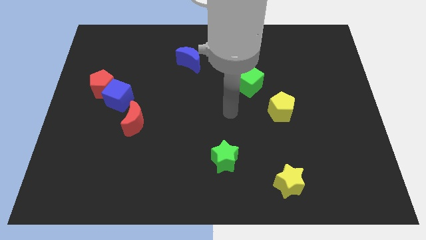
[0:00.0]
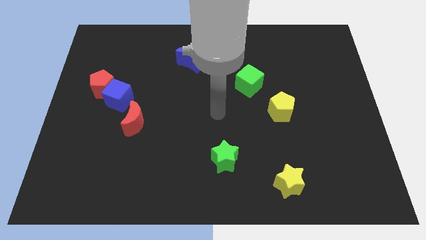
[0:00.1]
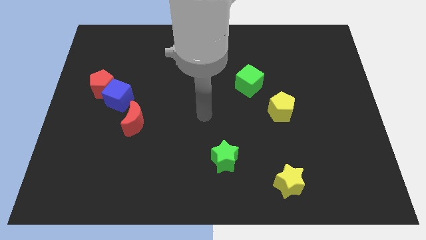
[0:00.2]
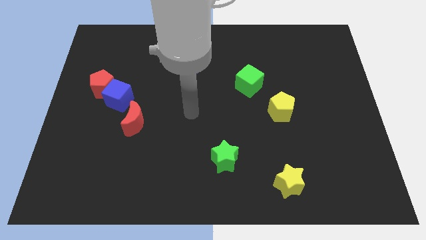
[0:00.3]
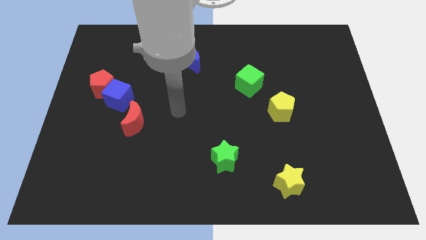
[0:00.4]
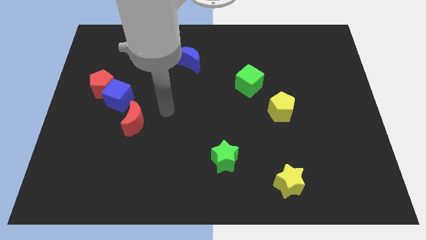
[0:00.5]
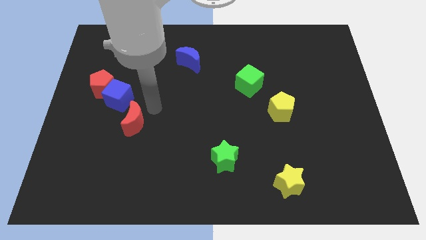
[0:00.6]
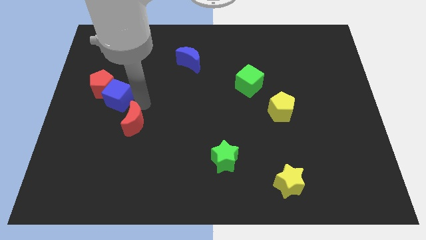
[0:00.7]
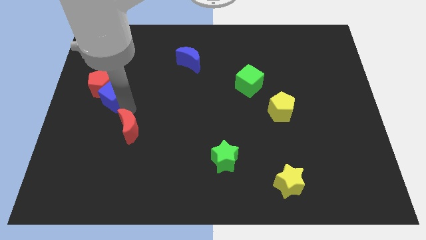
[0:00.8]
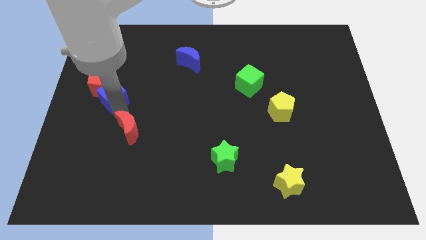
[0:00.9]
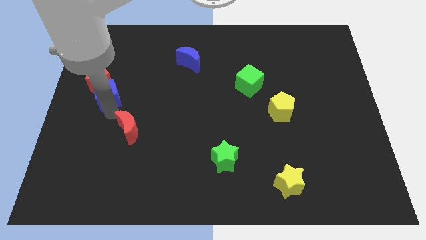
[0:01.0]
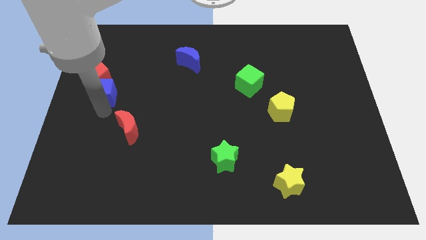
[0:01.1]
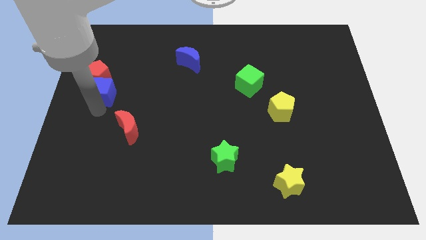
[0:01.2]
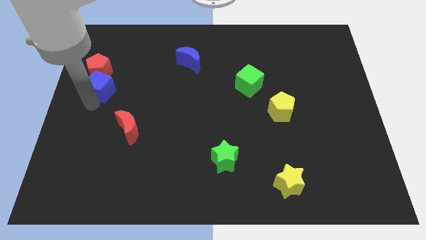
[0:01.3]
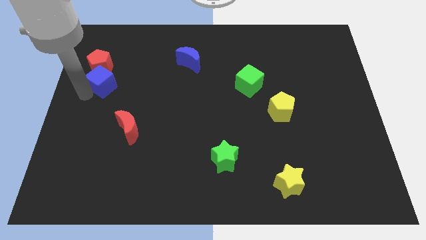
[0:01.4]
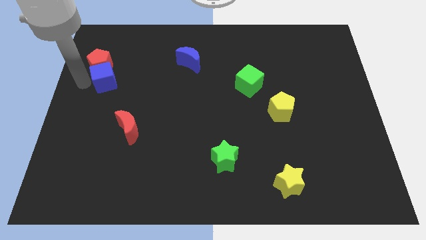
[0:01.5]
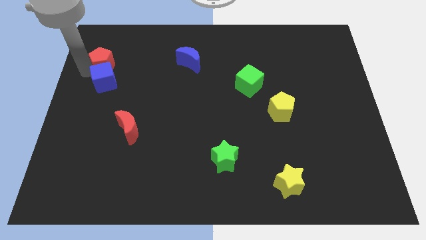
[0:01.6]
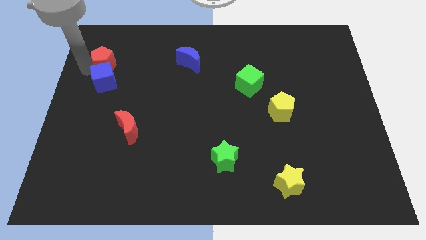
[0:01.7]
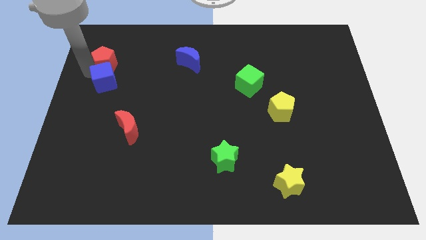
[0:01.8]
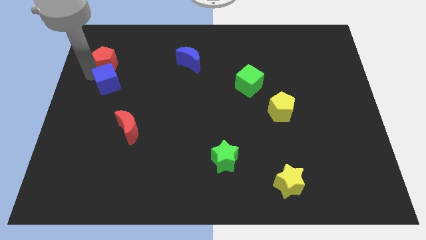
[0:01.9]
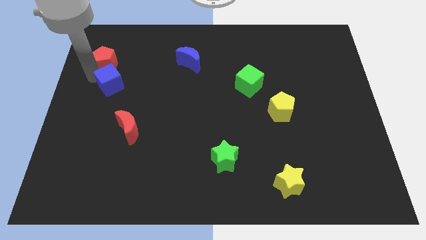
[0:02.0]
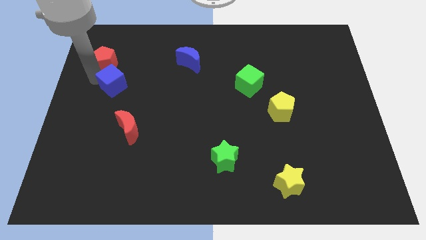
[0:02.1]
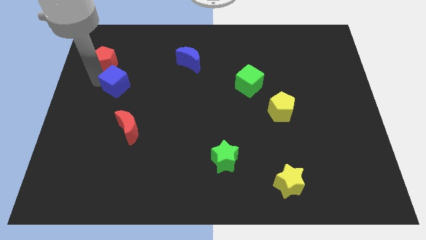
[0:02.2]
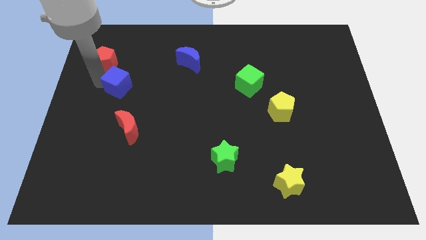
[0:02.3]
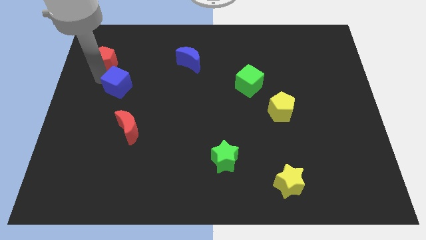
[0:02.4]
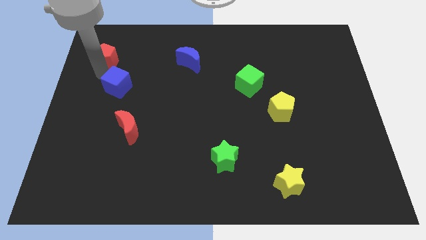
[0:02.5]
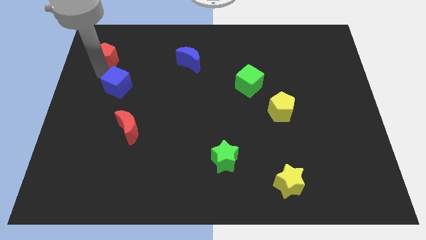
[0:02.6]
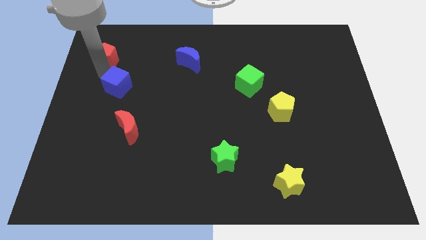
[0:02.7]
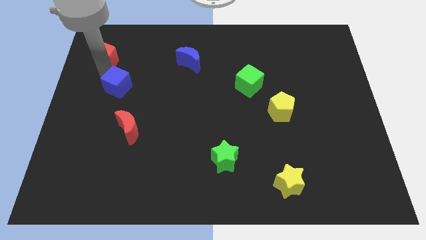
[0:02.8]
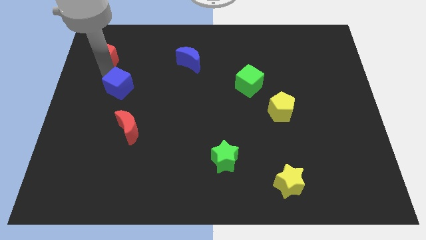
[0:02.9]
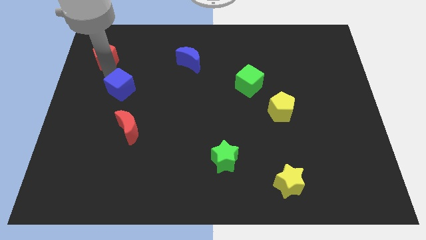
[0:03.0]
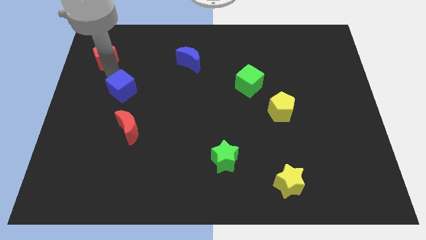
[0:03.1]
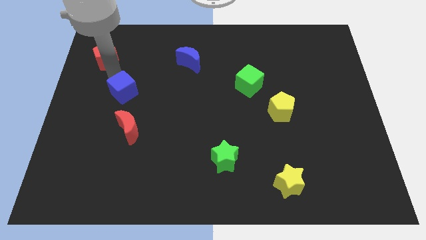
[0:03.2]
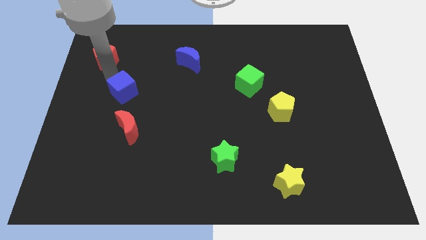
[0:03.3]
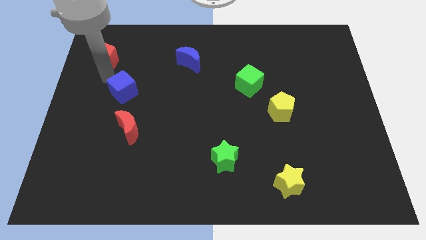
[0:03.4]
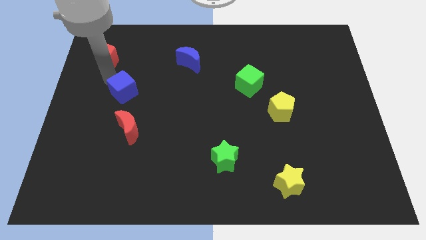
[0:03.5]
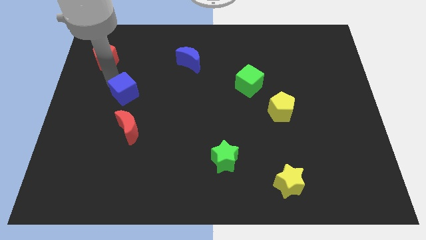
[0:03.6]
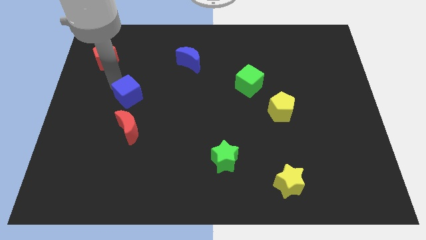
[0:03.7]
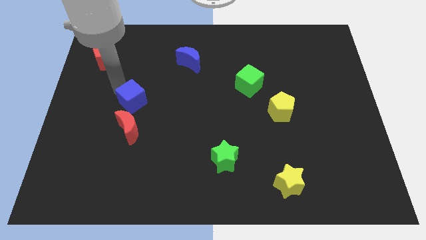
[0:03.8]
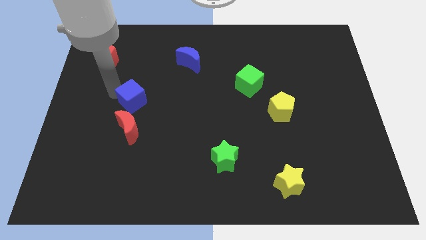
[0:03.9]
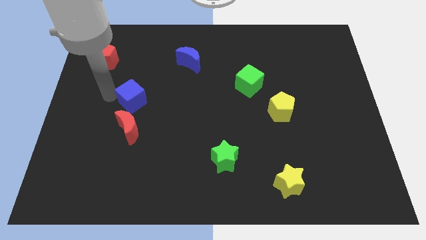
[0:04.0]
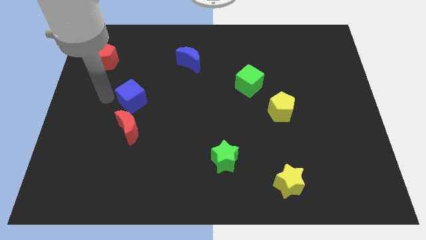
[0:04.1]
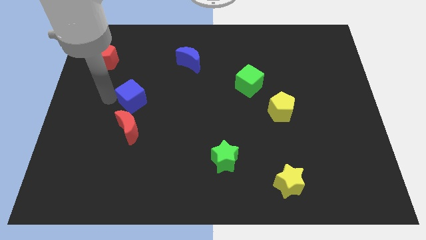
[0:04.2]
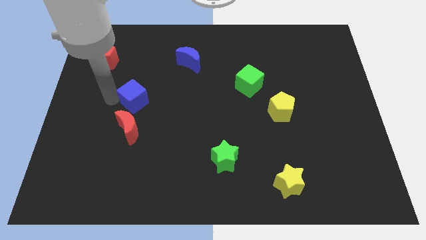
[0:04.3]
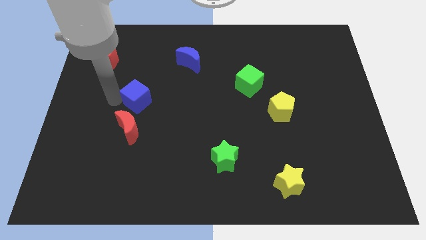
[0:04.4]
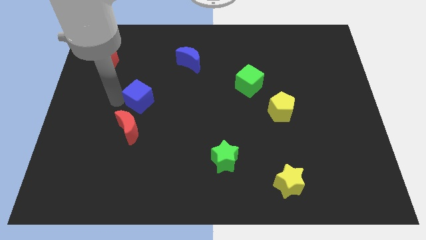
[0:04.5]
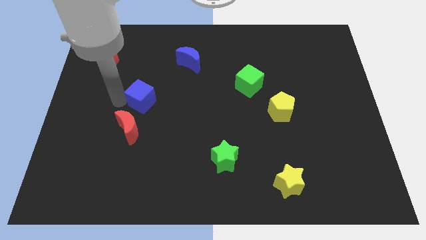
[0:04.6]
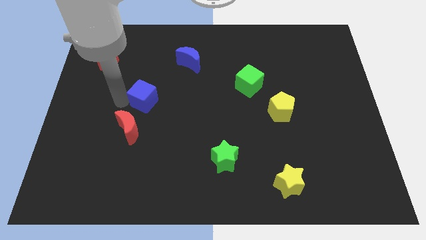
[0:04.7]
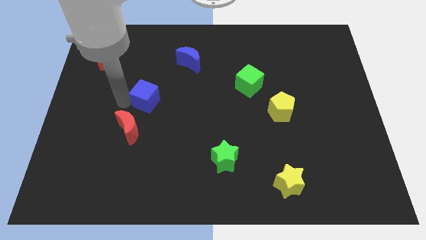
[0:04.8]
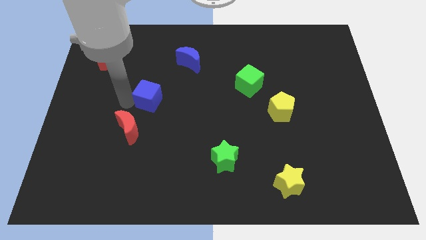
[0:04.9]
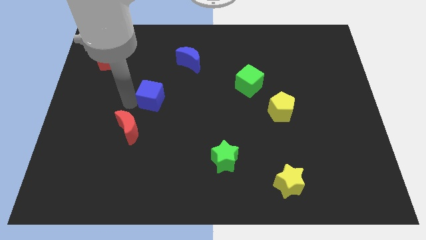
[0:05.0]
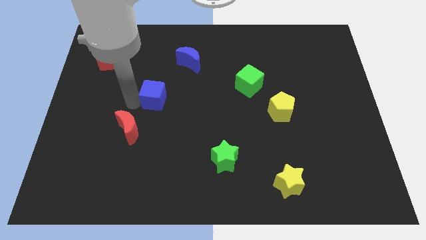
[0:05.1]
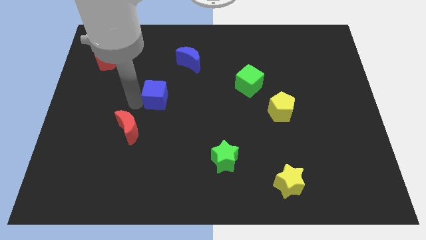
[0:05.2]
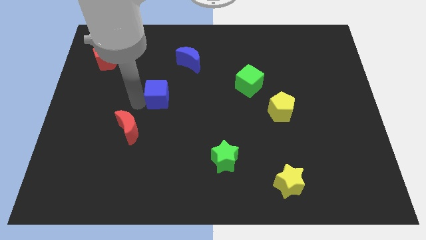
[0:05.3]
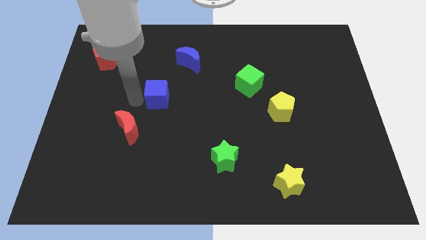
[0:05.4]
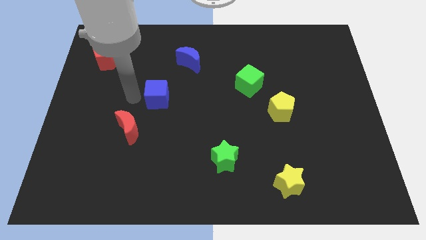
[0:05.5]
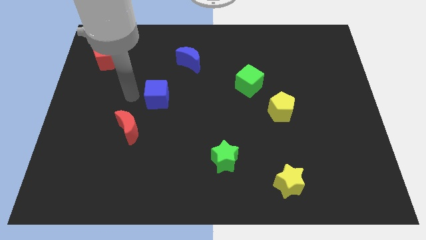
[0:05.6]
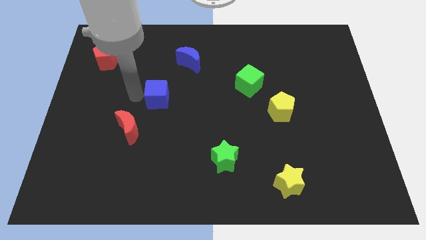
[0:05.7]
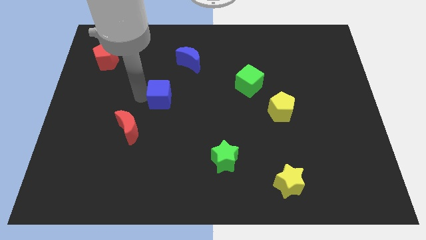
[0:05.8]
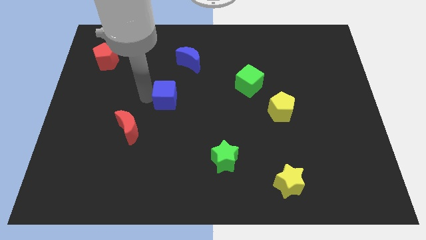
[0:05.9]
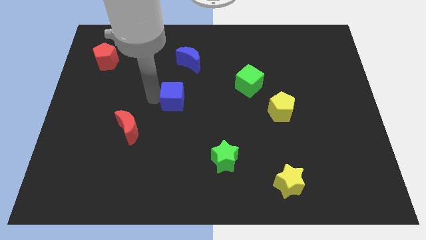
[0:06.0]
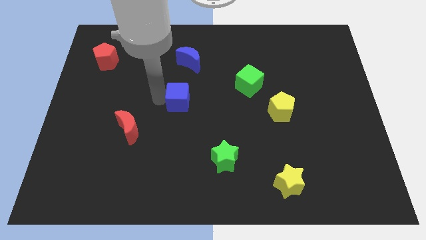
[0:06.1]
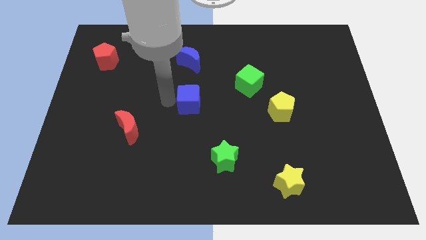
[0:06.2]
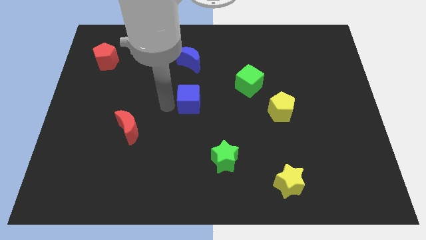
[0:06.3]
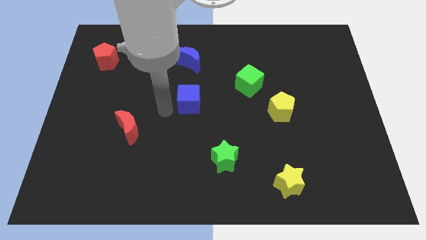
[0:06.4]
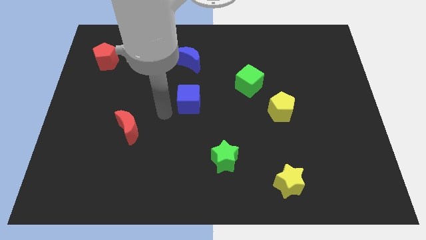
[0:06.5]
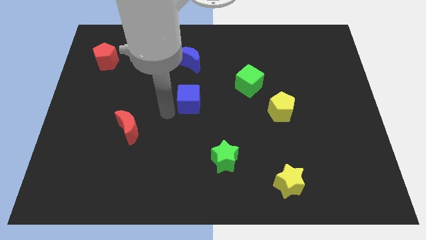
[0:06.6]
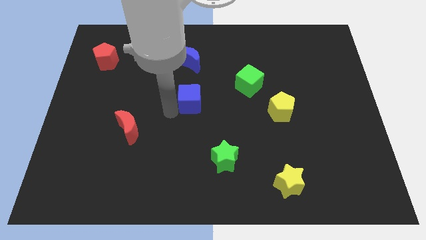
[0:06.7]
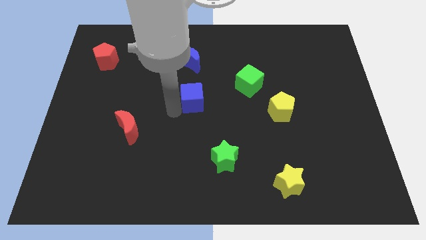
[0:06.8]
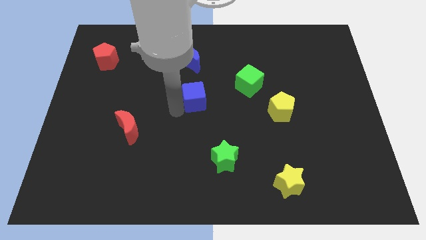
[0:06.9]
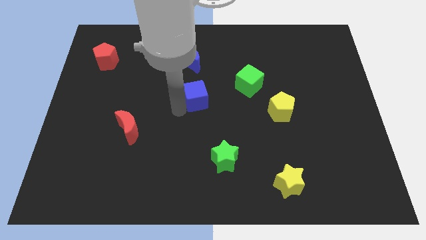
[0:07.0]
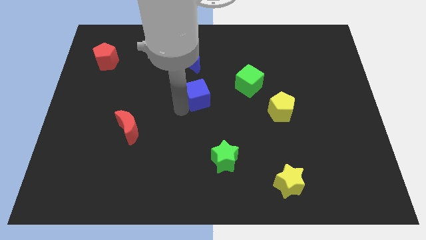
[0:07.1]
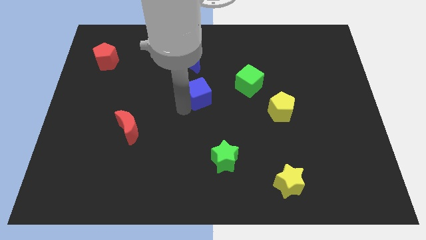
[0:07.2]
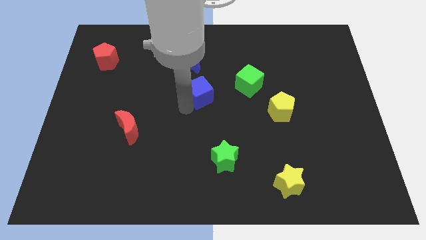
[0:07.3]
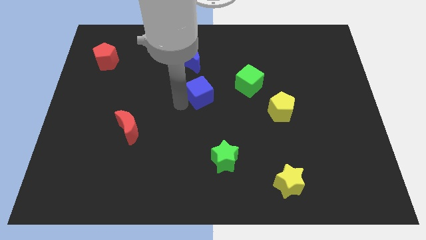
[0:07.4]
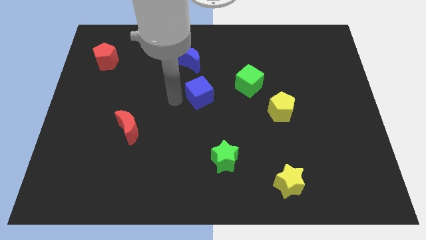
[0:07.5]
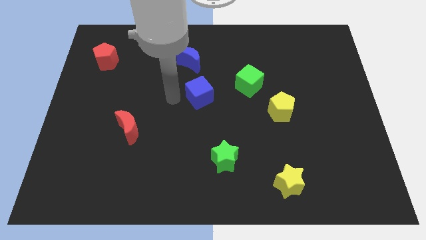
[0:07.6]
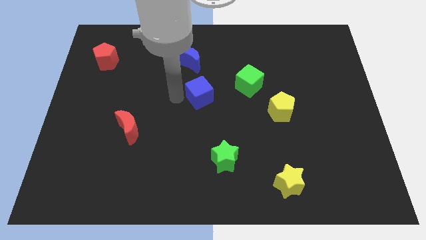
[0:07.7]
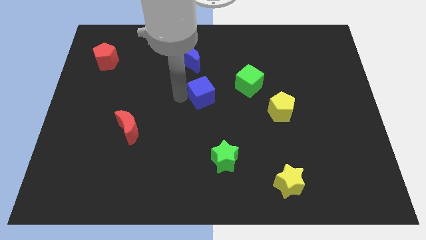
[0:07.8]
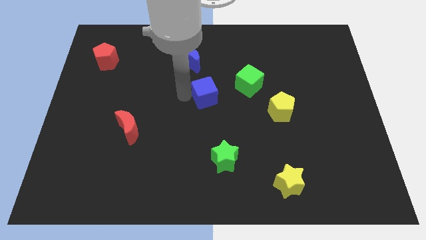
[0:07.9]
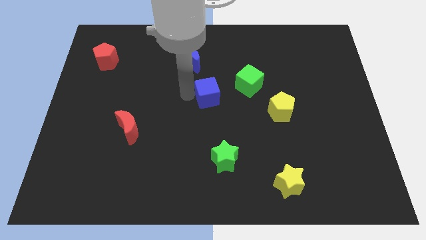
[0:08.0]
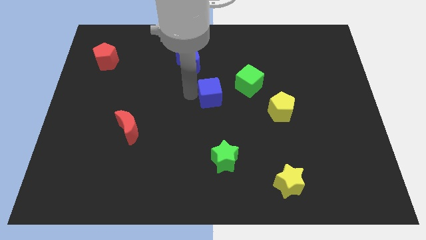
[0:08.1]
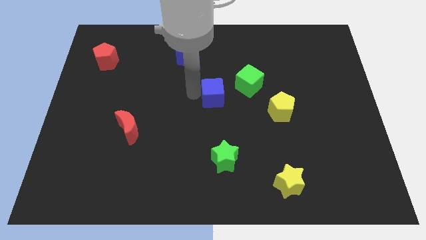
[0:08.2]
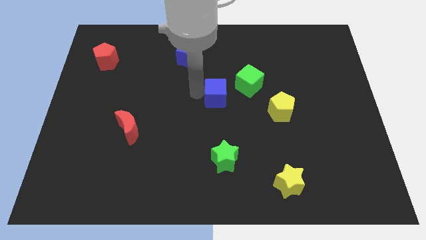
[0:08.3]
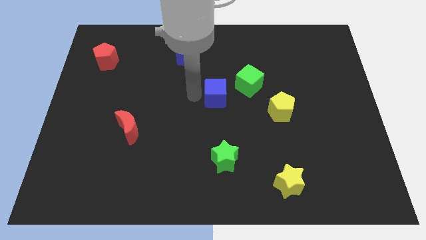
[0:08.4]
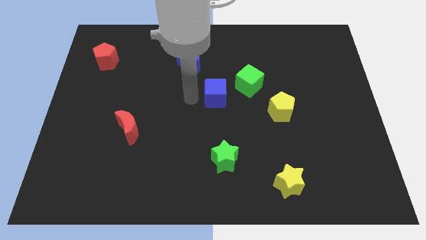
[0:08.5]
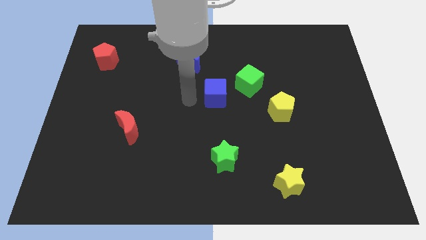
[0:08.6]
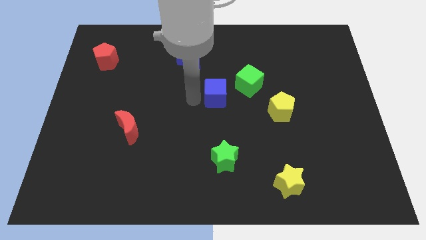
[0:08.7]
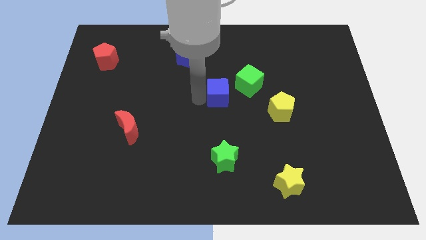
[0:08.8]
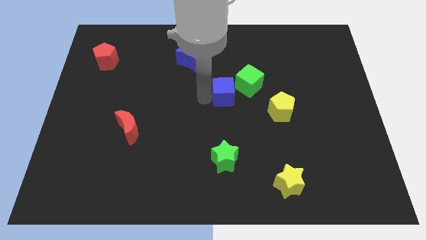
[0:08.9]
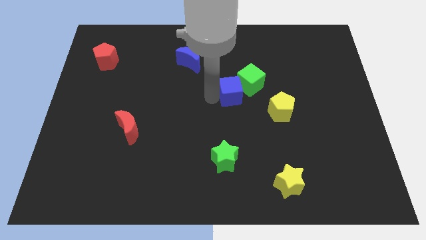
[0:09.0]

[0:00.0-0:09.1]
slide the blue cube close to the green cube
